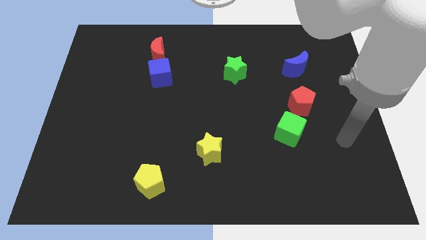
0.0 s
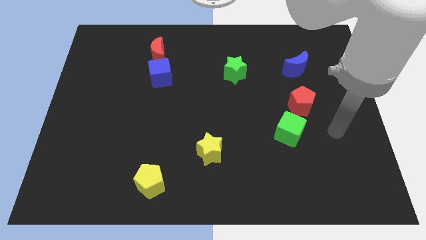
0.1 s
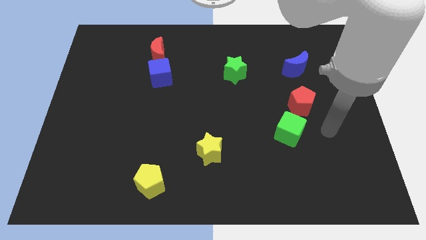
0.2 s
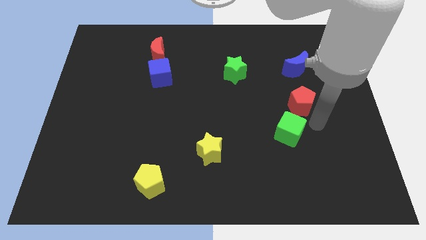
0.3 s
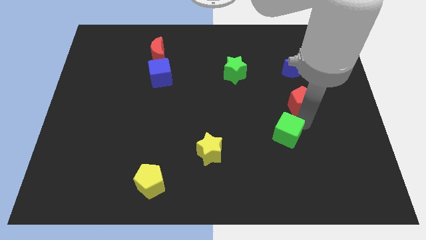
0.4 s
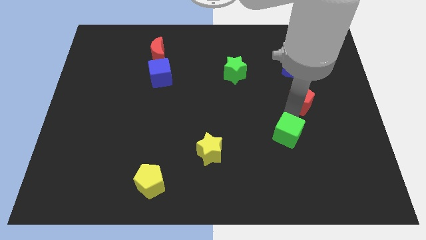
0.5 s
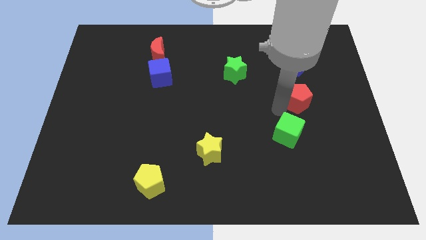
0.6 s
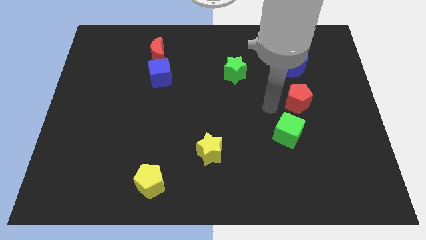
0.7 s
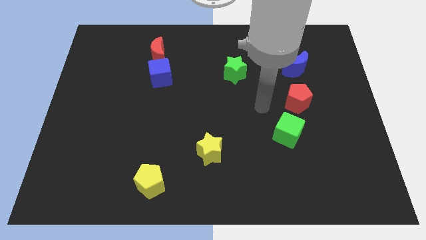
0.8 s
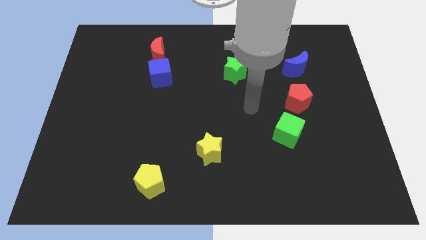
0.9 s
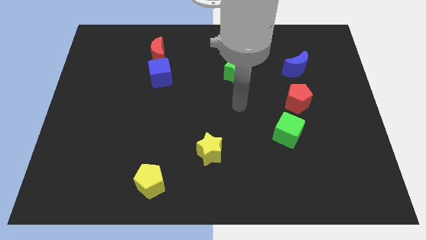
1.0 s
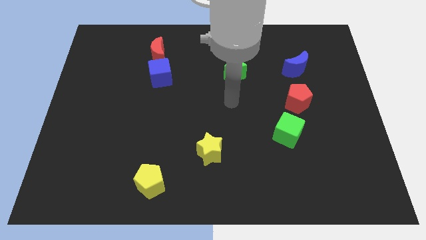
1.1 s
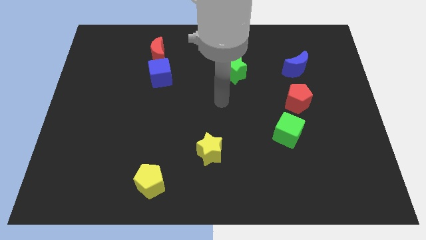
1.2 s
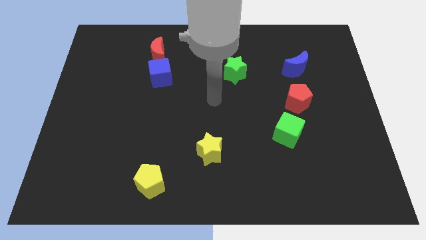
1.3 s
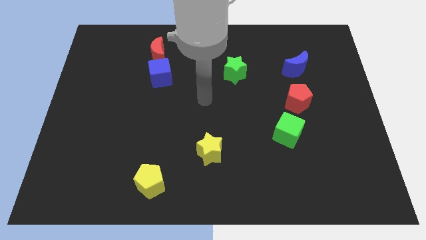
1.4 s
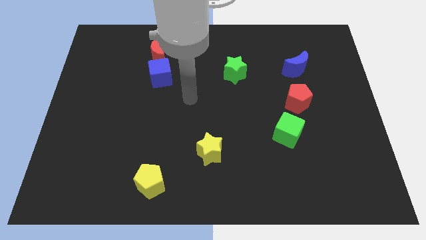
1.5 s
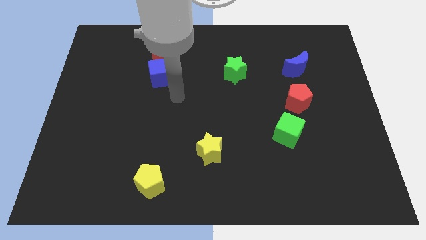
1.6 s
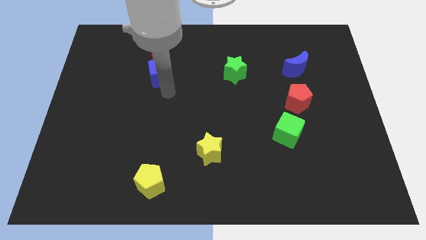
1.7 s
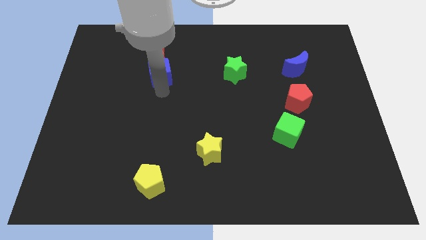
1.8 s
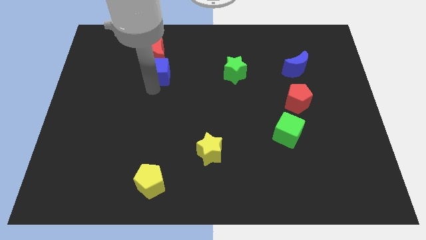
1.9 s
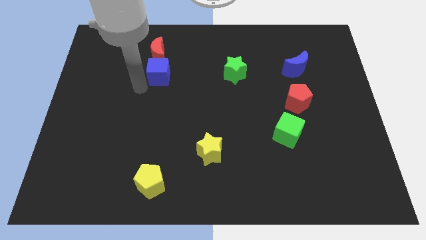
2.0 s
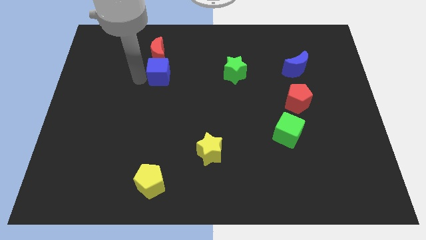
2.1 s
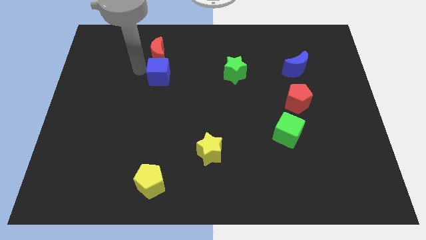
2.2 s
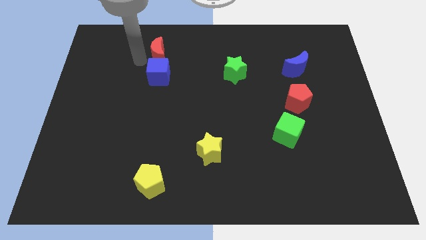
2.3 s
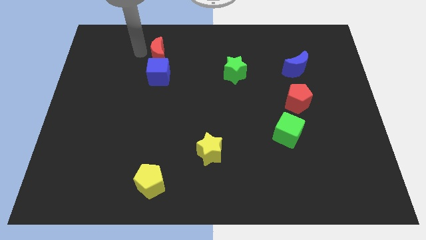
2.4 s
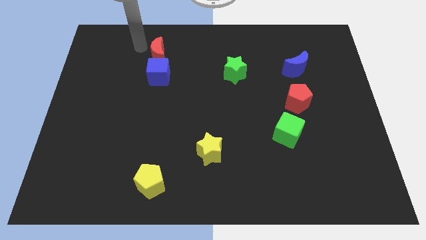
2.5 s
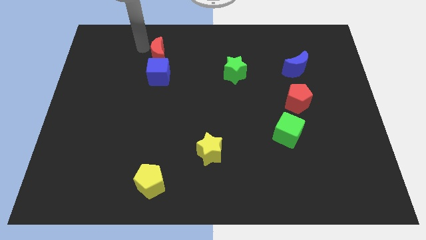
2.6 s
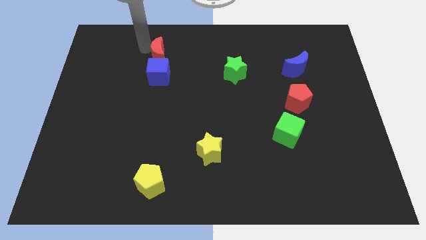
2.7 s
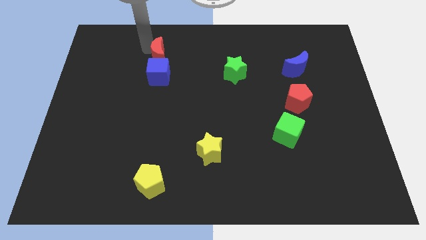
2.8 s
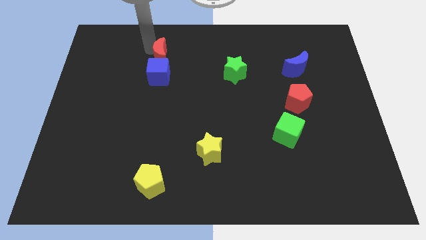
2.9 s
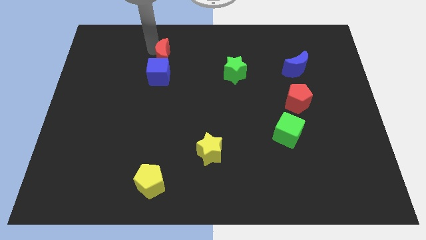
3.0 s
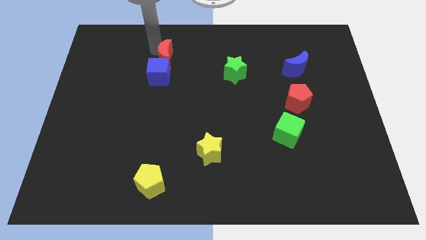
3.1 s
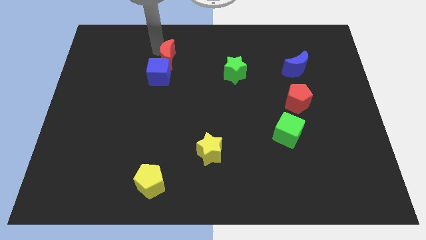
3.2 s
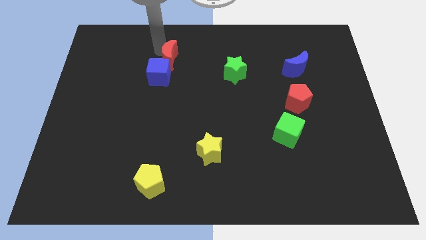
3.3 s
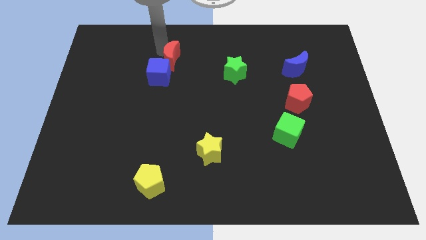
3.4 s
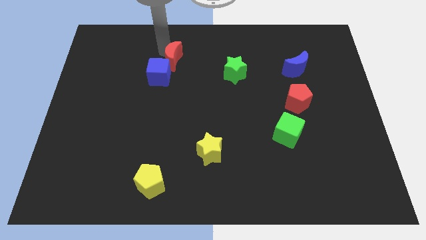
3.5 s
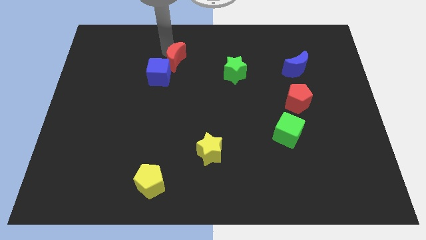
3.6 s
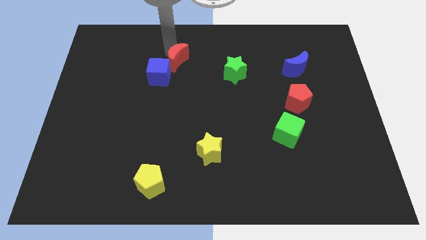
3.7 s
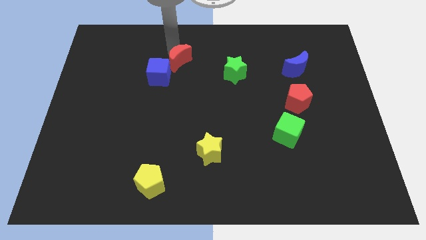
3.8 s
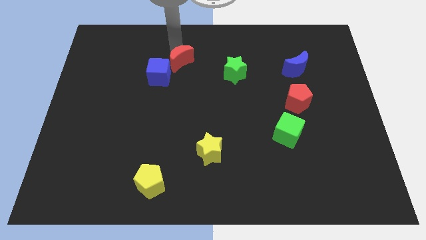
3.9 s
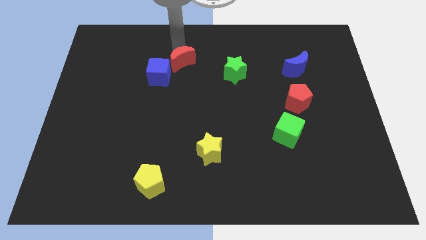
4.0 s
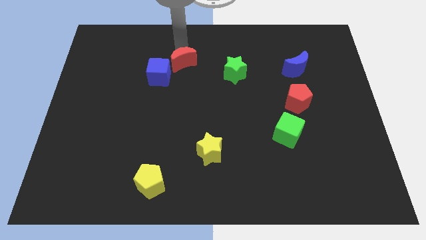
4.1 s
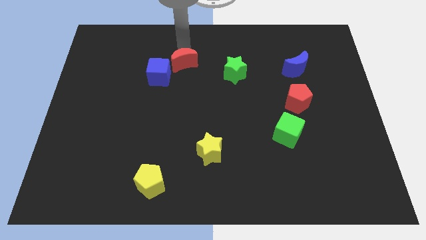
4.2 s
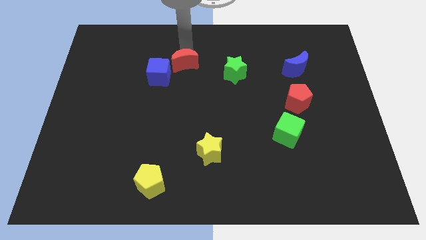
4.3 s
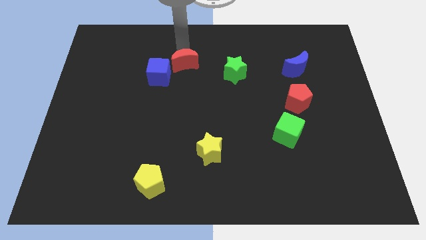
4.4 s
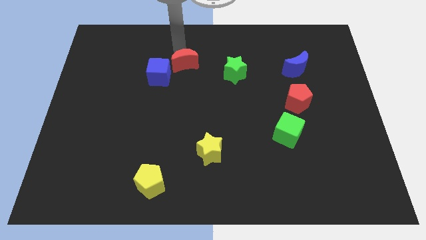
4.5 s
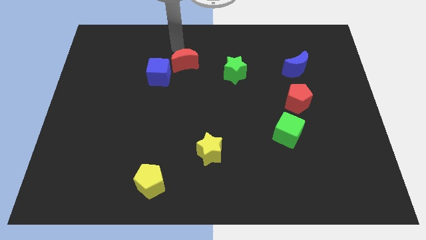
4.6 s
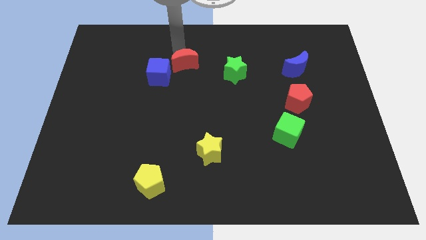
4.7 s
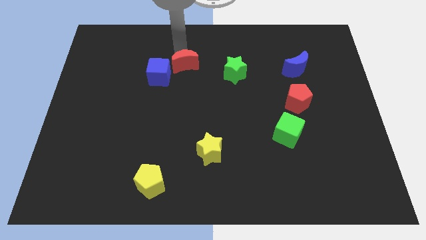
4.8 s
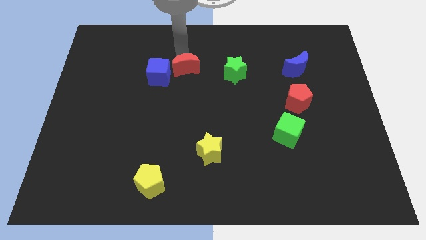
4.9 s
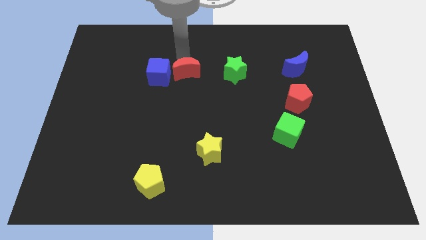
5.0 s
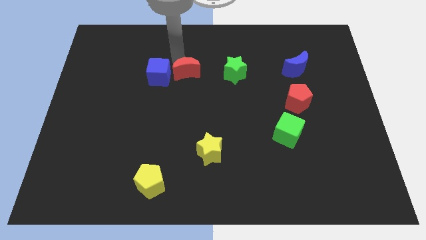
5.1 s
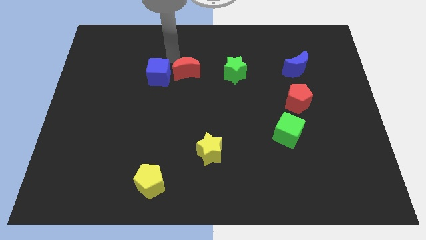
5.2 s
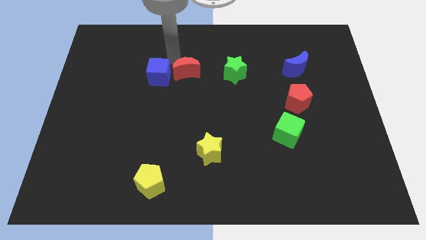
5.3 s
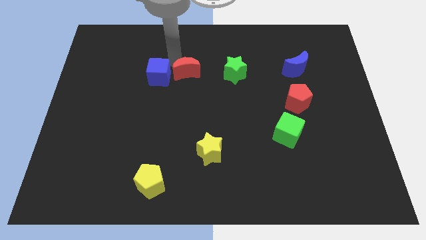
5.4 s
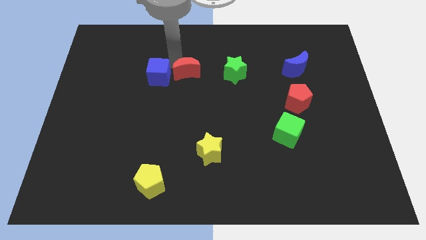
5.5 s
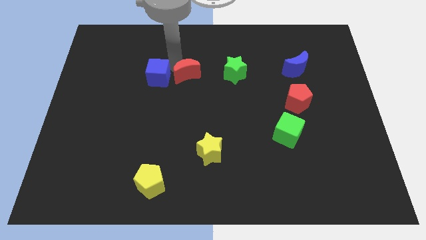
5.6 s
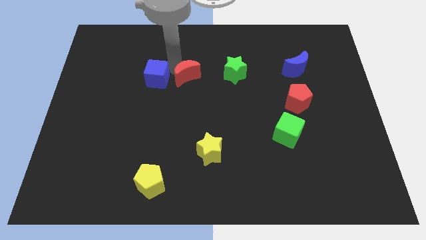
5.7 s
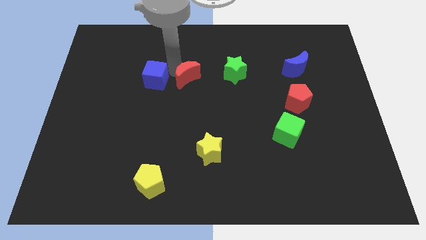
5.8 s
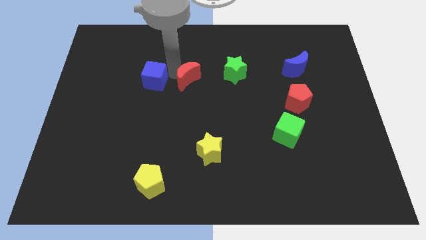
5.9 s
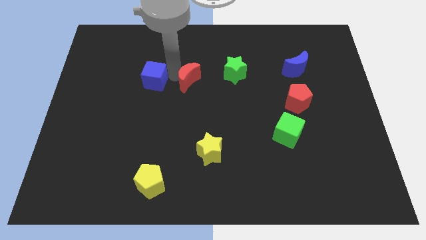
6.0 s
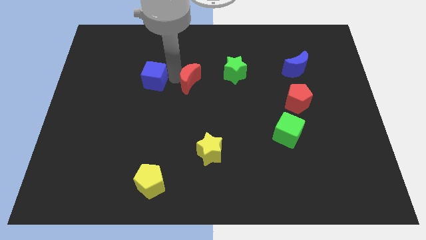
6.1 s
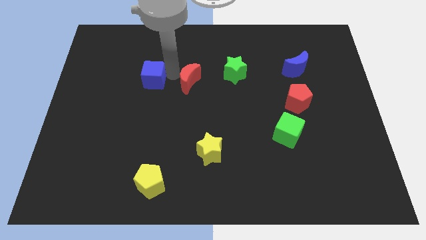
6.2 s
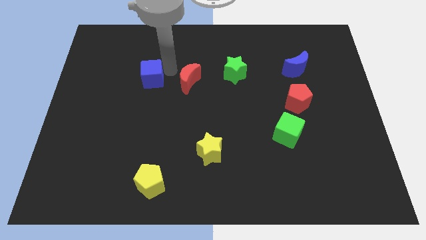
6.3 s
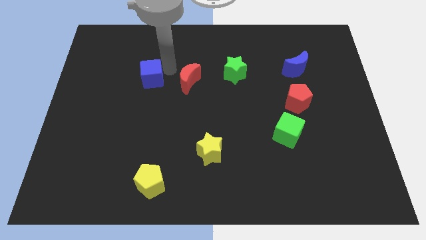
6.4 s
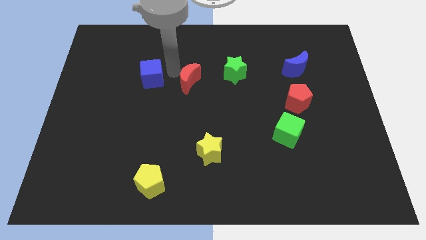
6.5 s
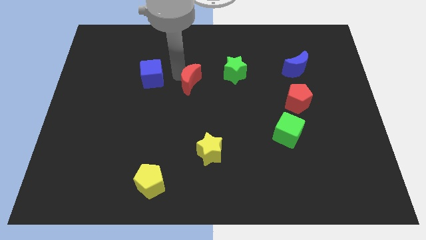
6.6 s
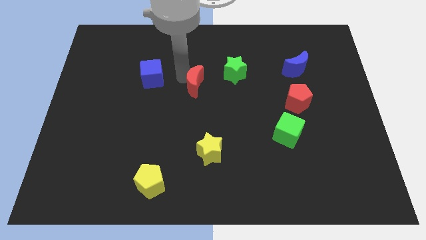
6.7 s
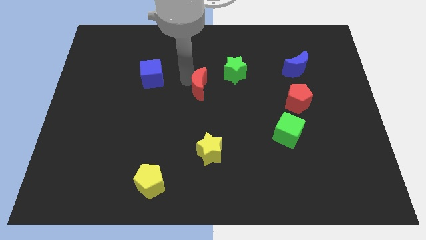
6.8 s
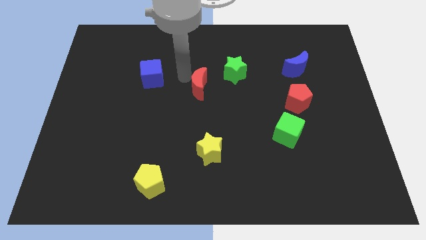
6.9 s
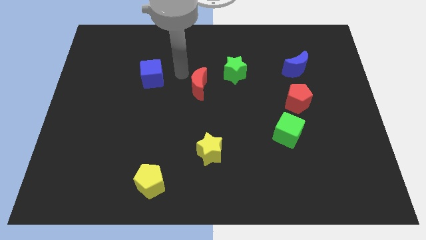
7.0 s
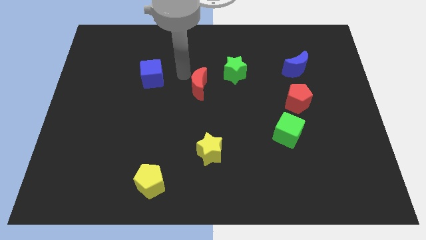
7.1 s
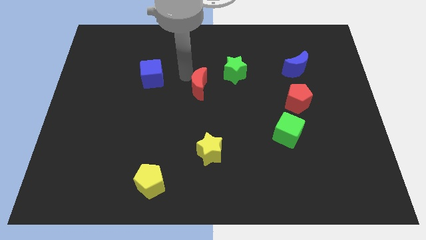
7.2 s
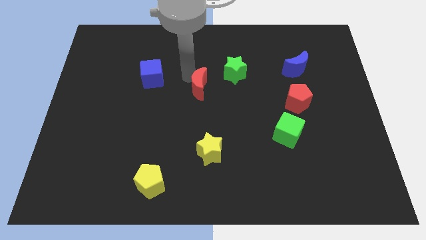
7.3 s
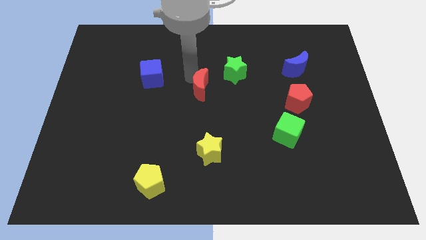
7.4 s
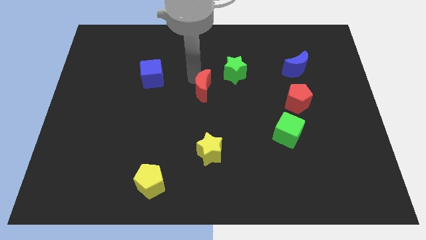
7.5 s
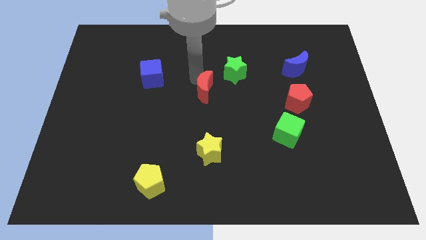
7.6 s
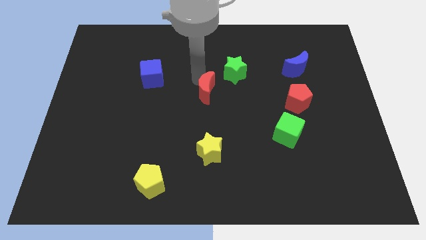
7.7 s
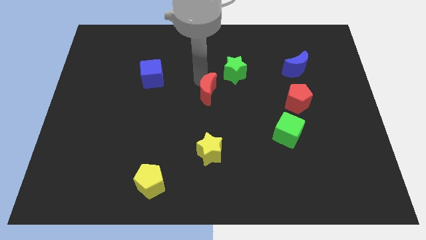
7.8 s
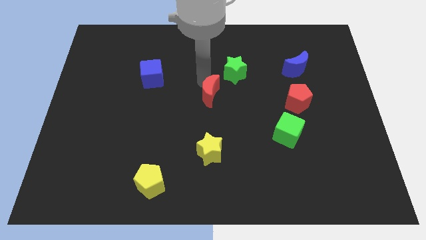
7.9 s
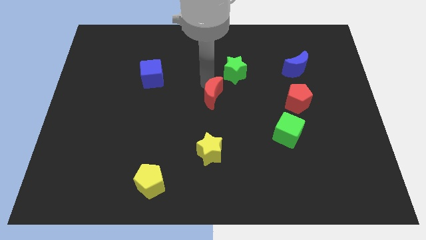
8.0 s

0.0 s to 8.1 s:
push the red moon diagonally downwards and to the right
